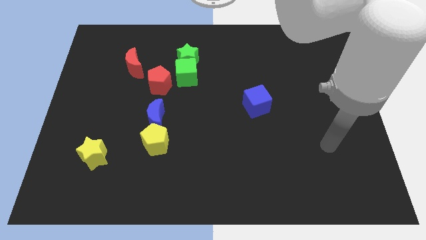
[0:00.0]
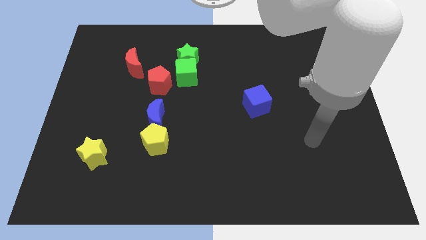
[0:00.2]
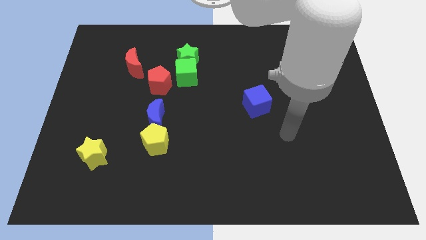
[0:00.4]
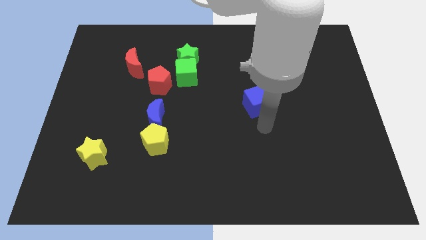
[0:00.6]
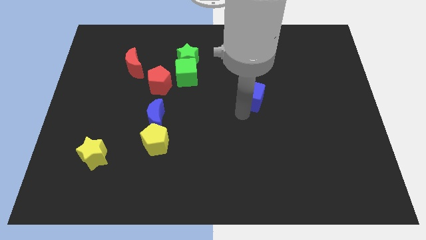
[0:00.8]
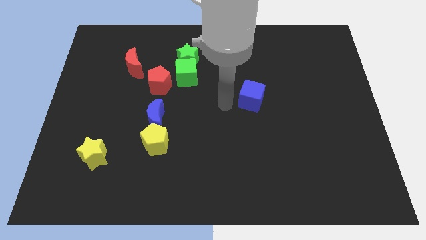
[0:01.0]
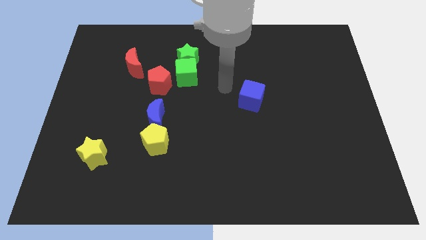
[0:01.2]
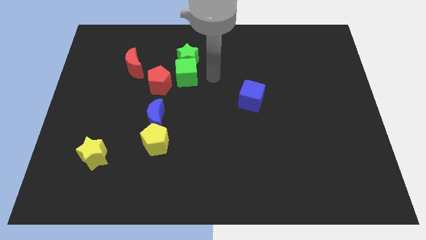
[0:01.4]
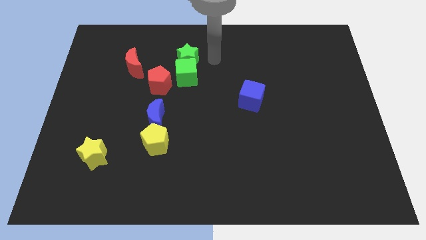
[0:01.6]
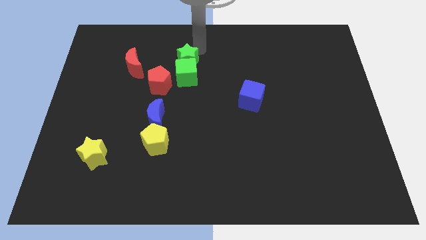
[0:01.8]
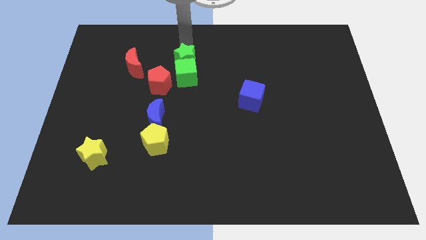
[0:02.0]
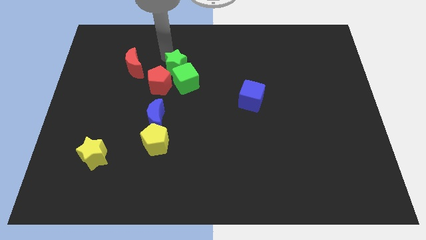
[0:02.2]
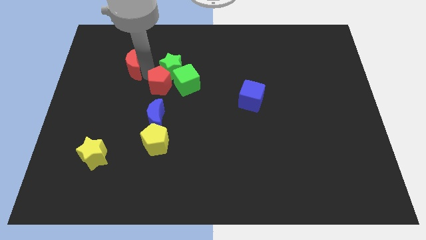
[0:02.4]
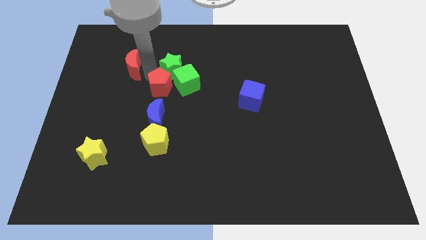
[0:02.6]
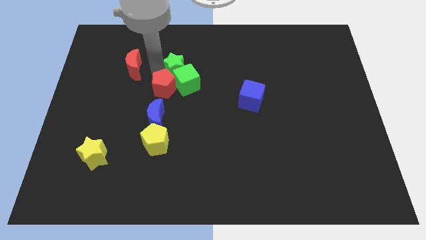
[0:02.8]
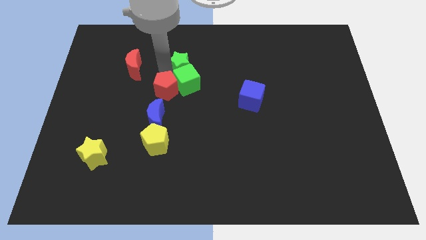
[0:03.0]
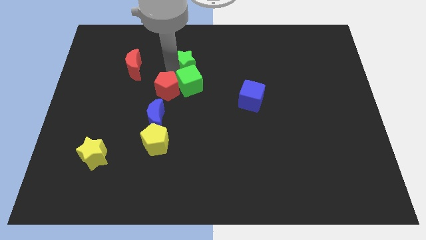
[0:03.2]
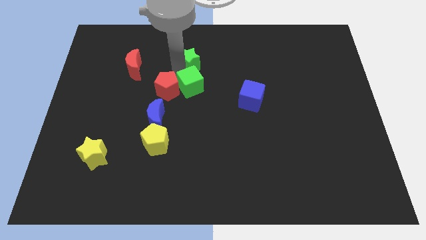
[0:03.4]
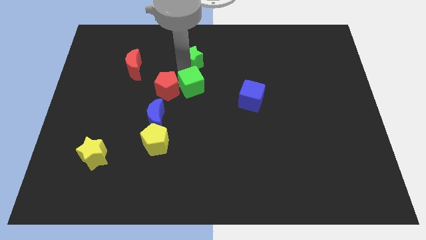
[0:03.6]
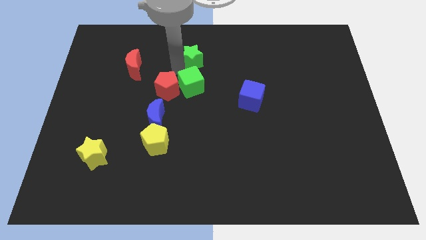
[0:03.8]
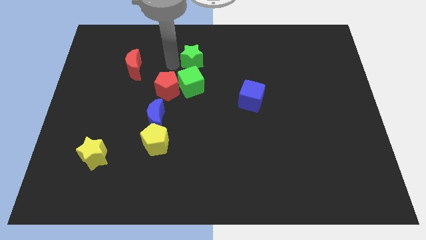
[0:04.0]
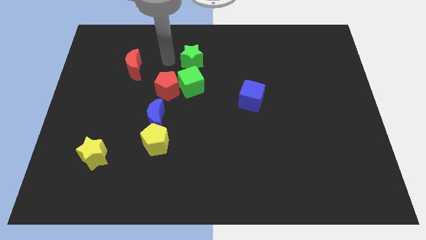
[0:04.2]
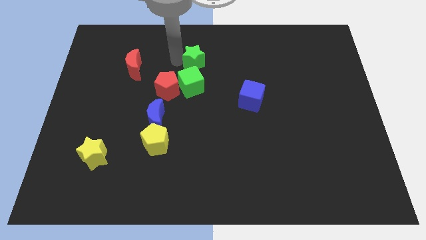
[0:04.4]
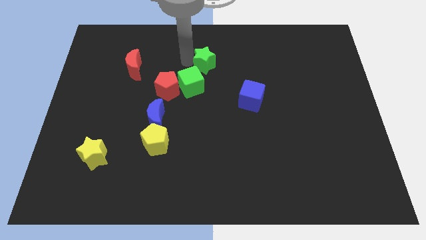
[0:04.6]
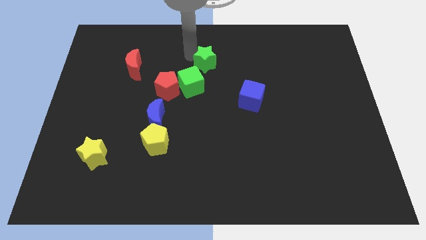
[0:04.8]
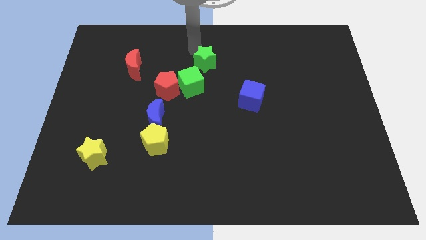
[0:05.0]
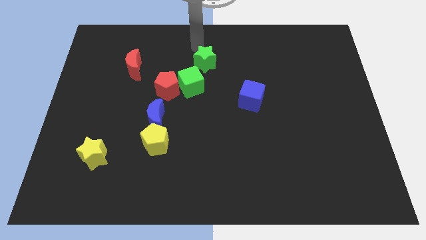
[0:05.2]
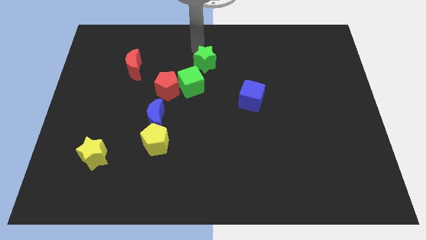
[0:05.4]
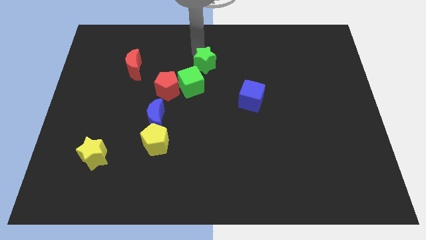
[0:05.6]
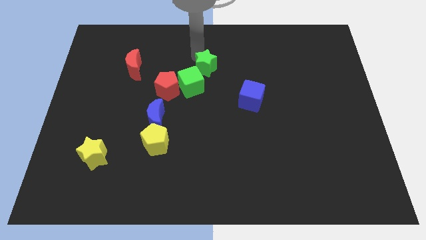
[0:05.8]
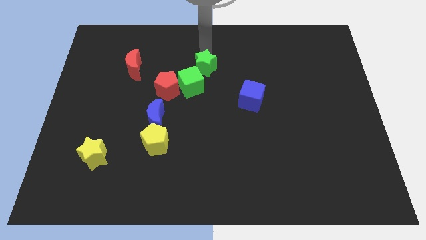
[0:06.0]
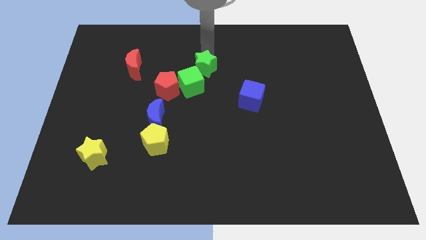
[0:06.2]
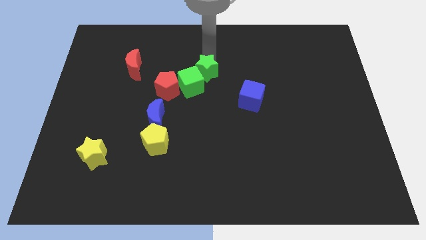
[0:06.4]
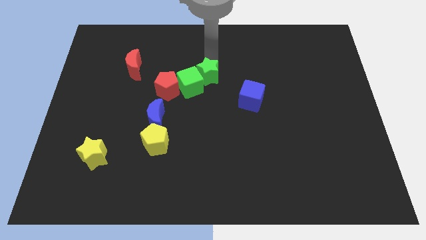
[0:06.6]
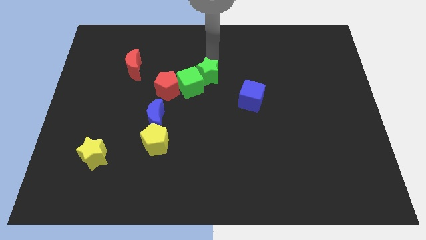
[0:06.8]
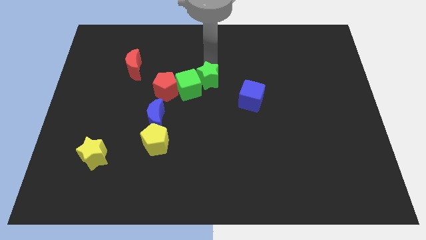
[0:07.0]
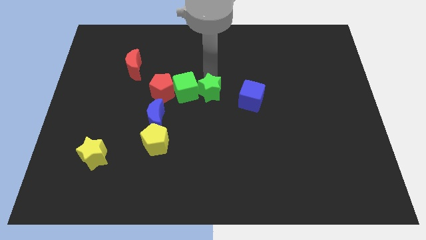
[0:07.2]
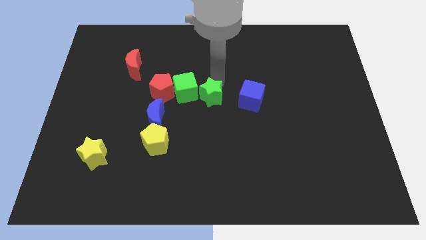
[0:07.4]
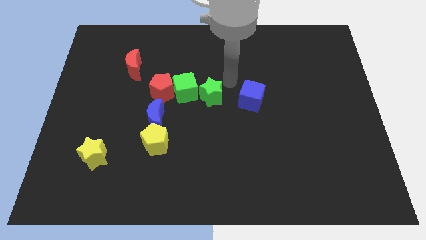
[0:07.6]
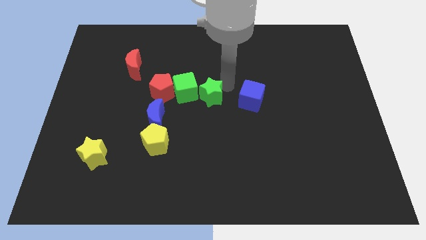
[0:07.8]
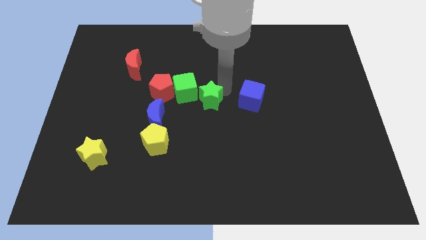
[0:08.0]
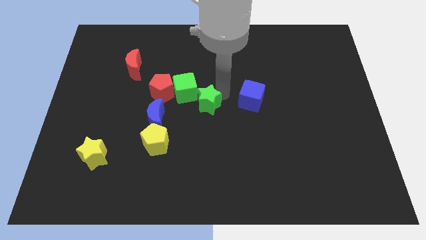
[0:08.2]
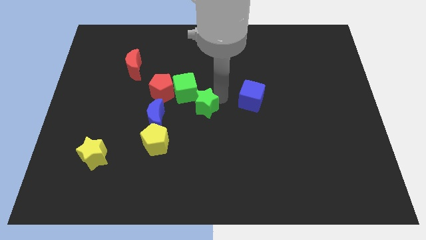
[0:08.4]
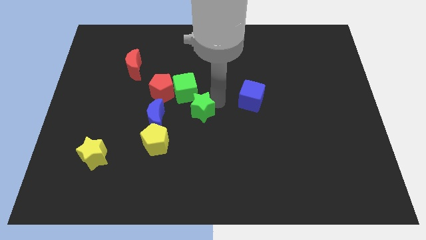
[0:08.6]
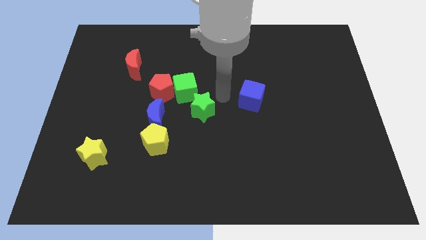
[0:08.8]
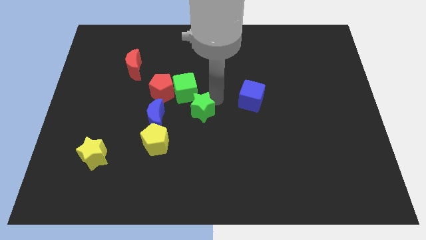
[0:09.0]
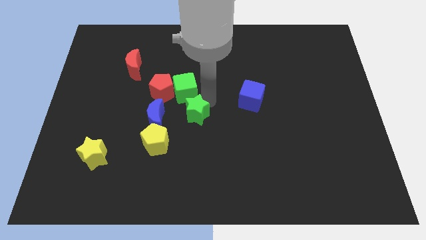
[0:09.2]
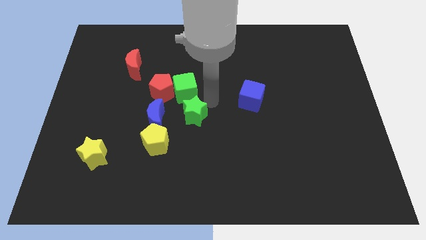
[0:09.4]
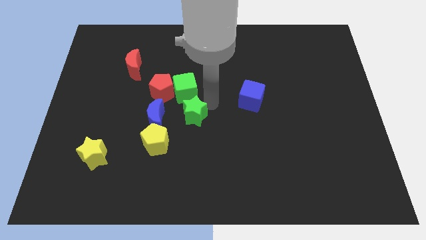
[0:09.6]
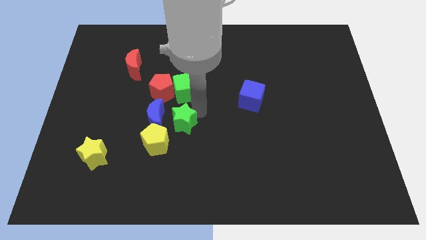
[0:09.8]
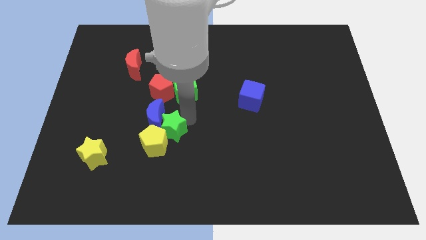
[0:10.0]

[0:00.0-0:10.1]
push the green star towards the yellow pentagon

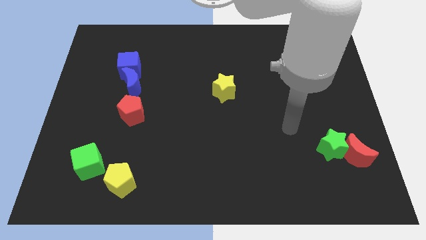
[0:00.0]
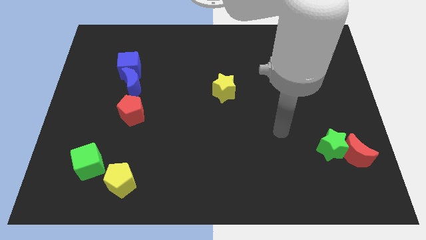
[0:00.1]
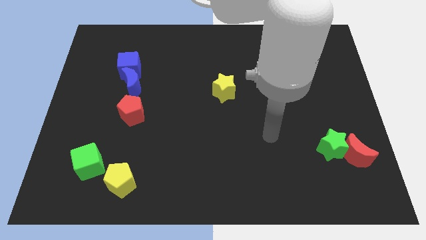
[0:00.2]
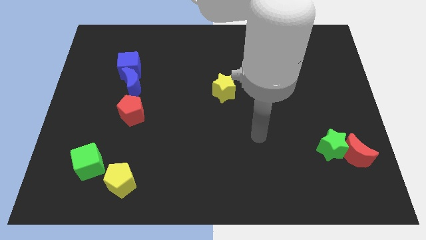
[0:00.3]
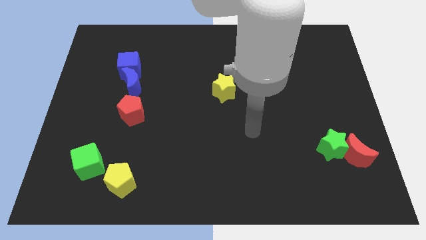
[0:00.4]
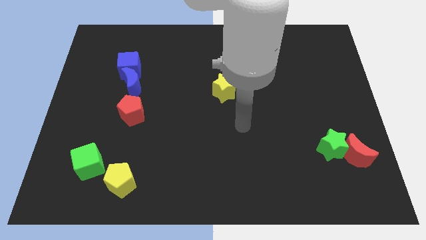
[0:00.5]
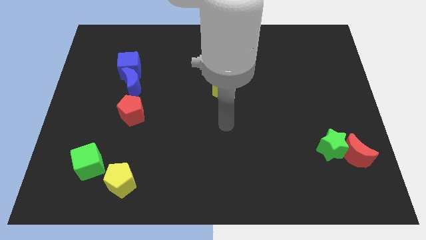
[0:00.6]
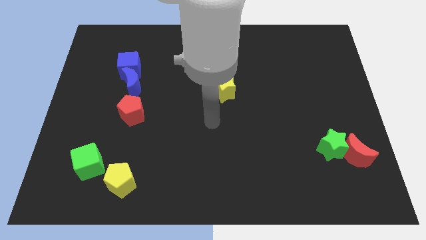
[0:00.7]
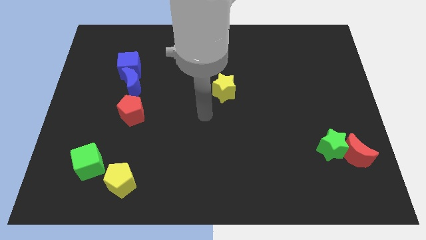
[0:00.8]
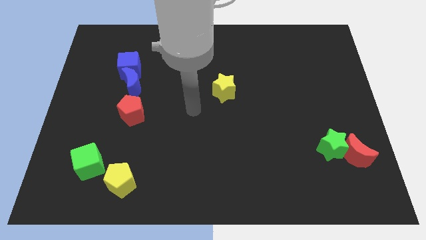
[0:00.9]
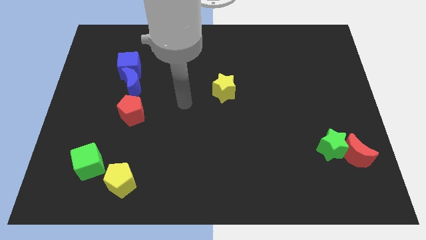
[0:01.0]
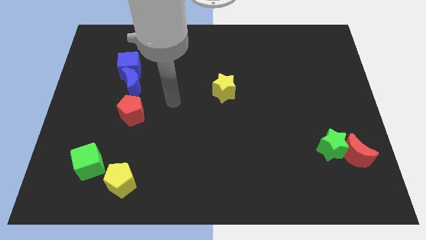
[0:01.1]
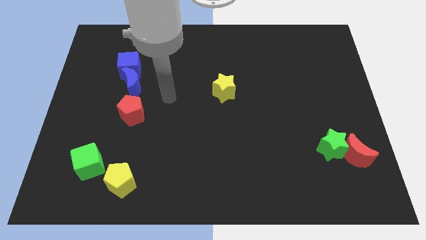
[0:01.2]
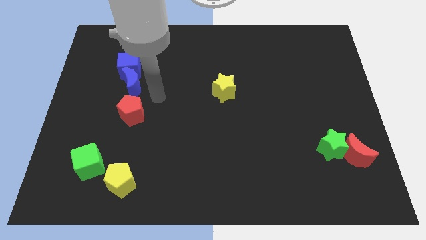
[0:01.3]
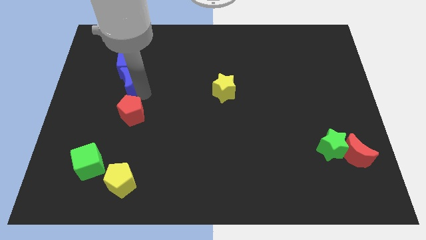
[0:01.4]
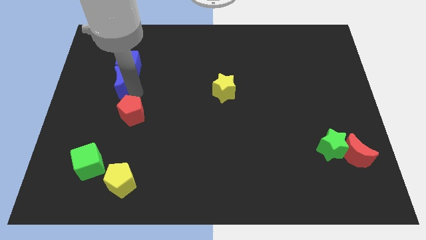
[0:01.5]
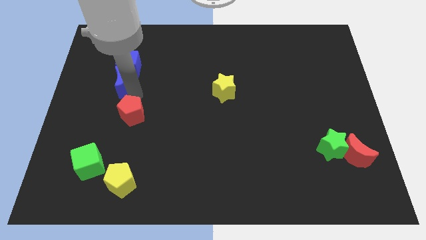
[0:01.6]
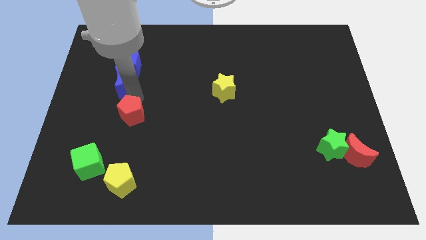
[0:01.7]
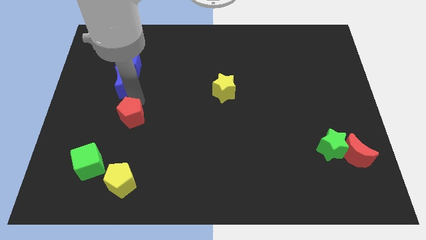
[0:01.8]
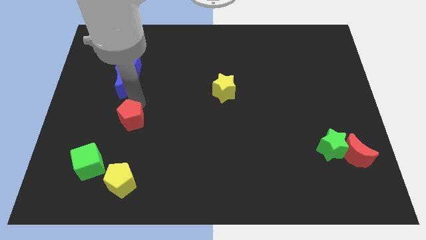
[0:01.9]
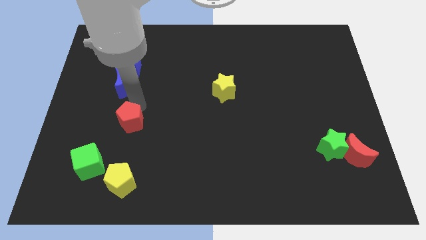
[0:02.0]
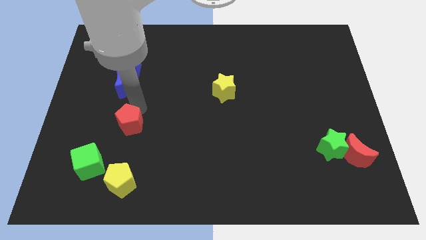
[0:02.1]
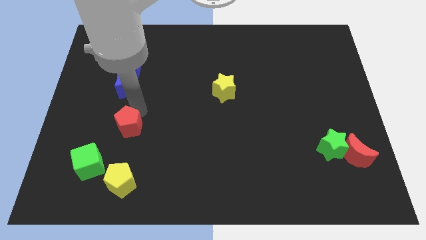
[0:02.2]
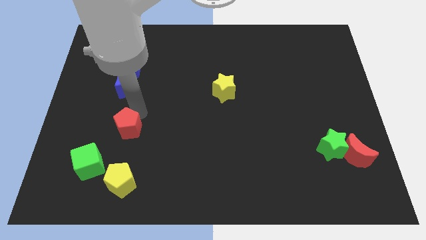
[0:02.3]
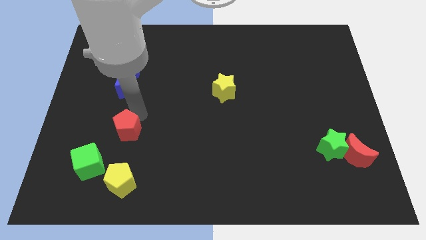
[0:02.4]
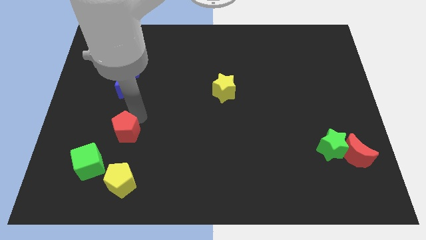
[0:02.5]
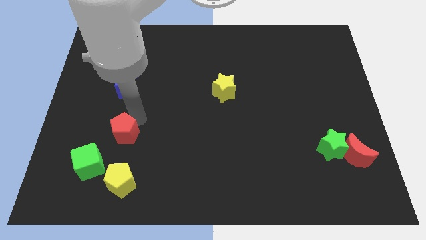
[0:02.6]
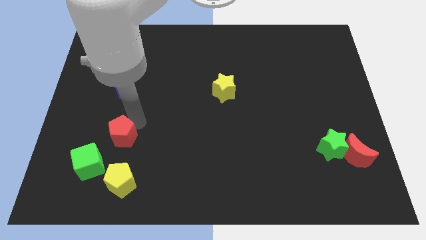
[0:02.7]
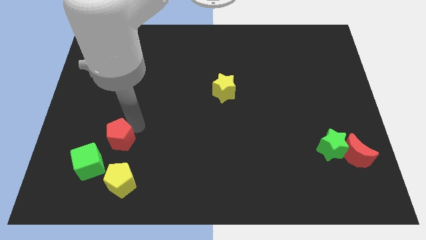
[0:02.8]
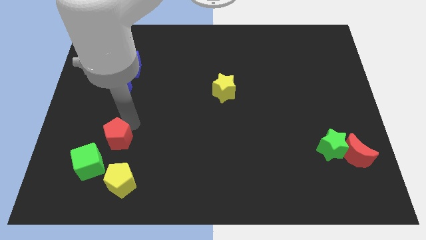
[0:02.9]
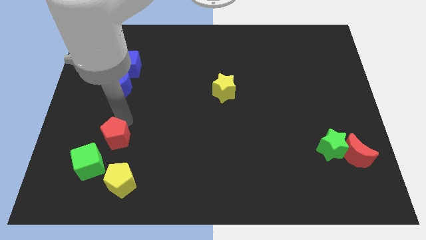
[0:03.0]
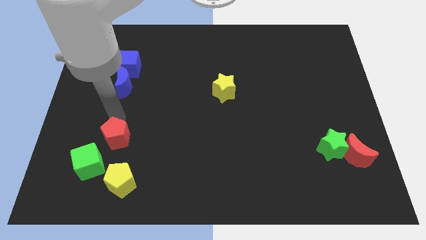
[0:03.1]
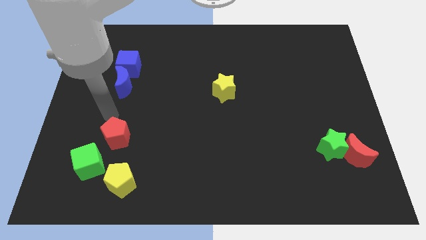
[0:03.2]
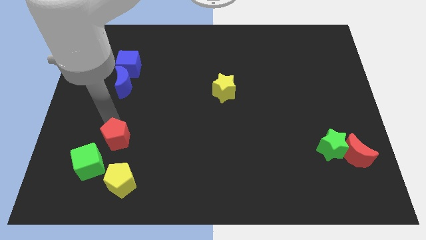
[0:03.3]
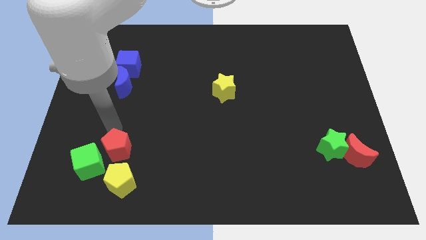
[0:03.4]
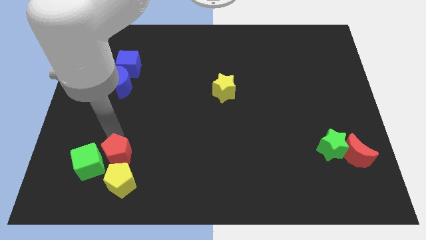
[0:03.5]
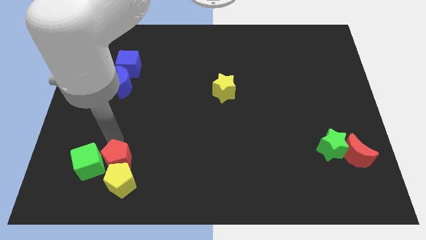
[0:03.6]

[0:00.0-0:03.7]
push the red pentagon close to the yellow pentagon
